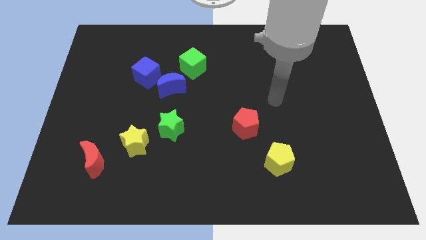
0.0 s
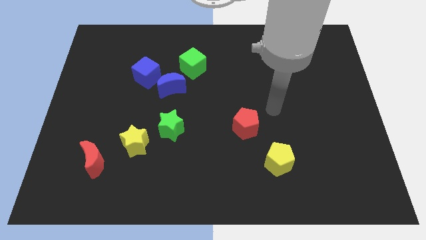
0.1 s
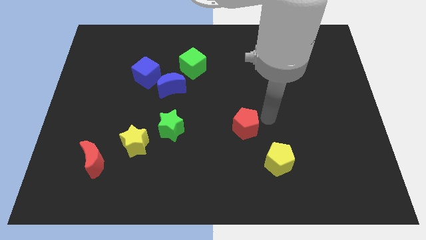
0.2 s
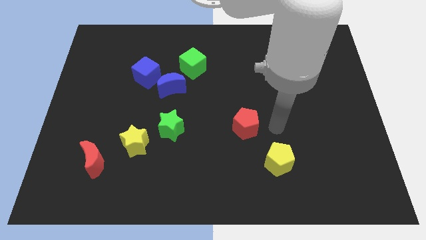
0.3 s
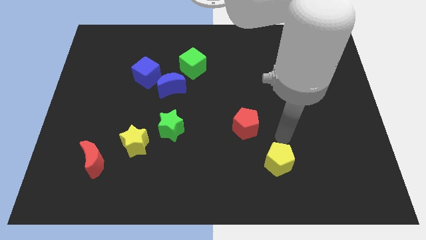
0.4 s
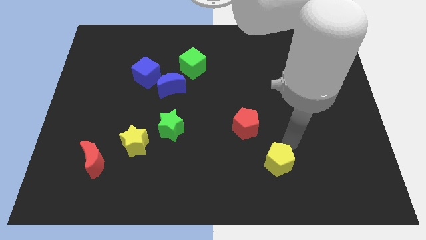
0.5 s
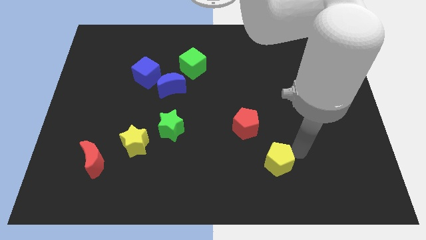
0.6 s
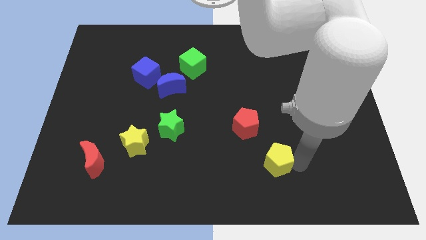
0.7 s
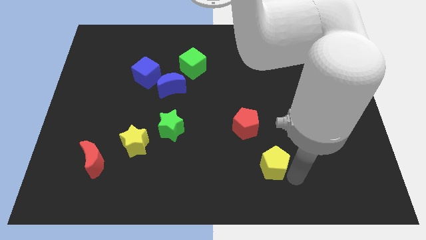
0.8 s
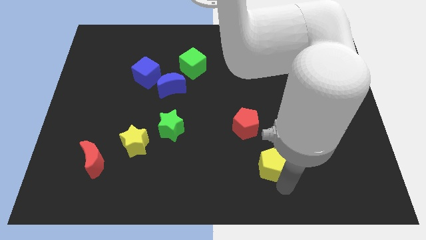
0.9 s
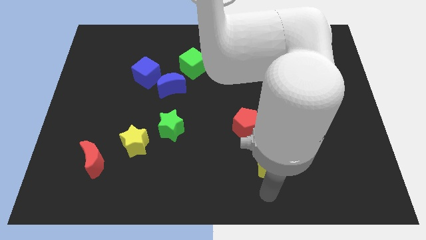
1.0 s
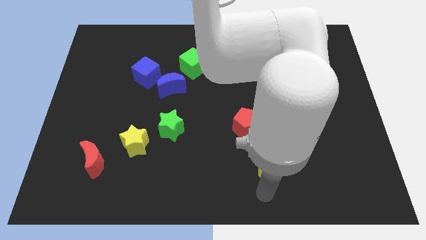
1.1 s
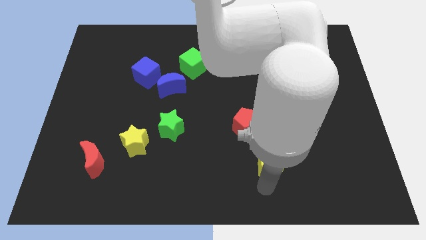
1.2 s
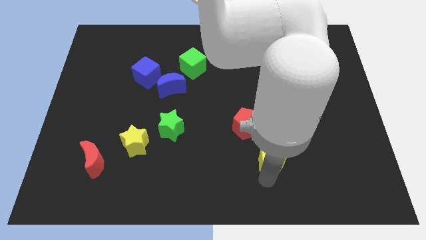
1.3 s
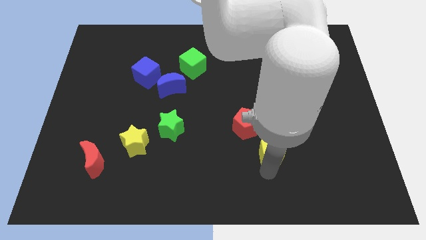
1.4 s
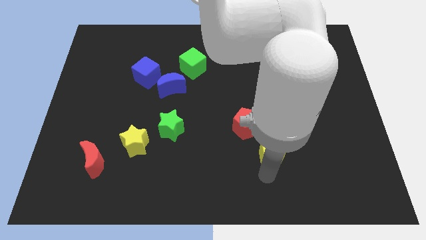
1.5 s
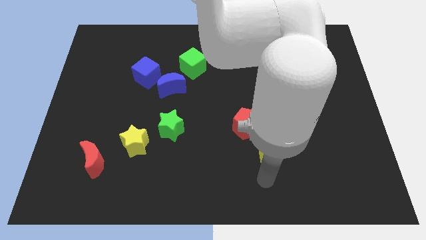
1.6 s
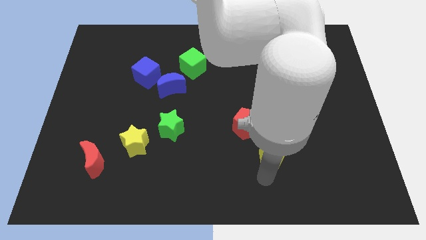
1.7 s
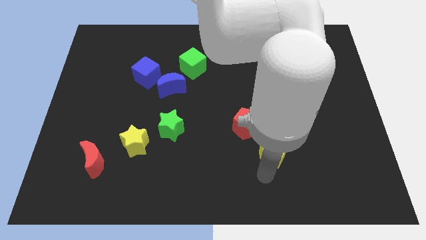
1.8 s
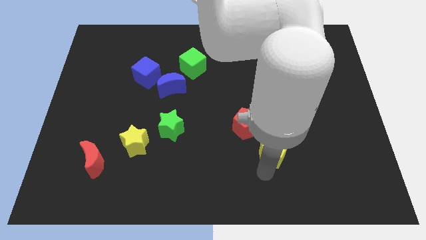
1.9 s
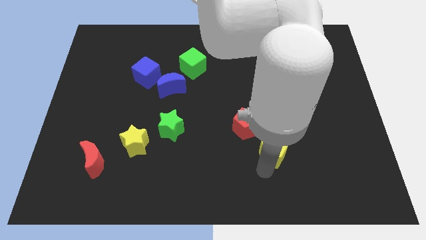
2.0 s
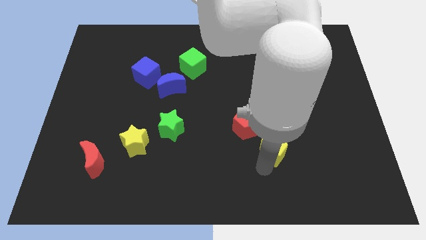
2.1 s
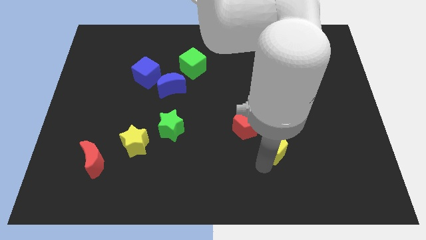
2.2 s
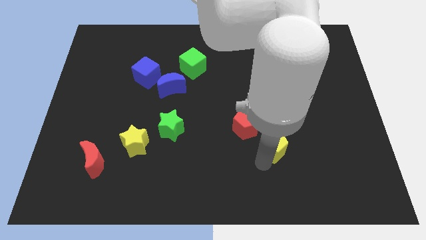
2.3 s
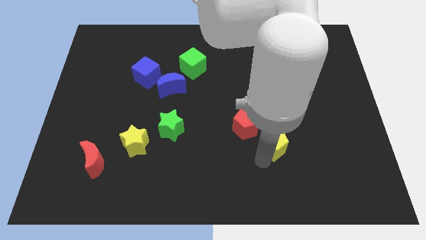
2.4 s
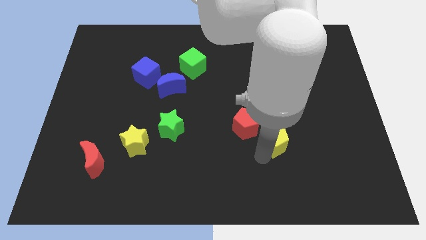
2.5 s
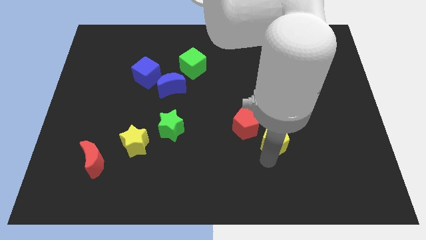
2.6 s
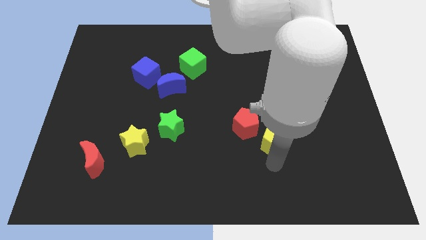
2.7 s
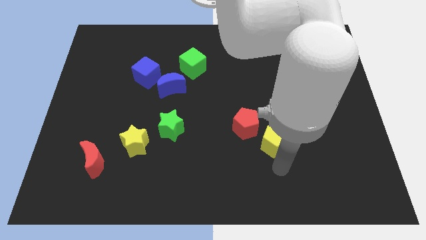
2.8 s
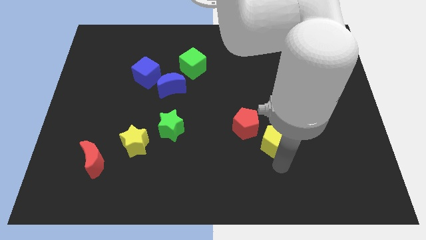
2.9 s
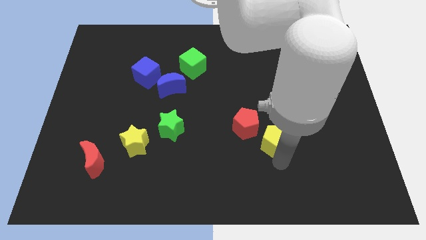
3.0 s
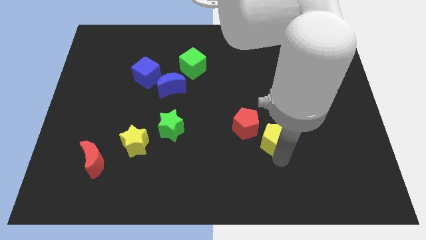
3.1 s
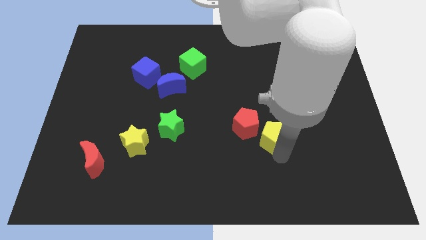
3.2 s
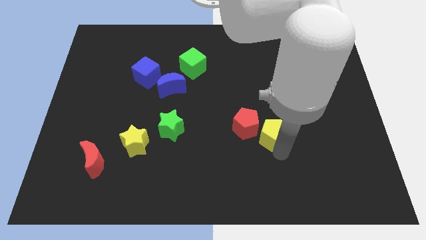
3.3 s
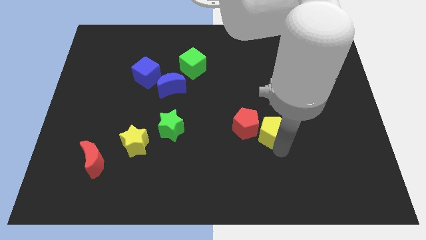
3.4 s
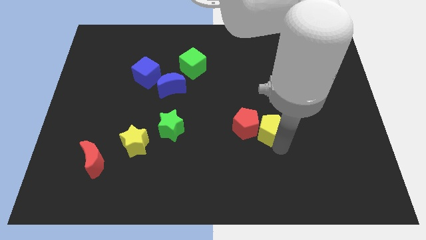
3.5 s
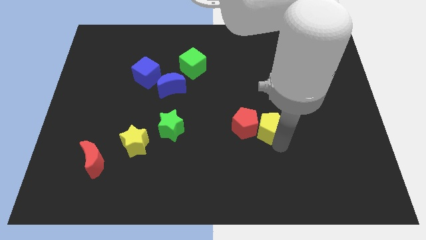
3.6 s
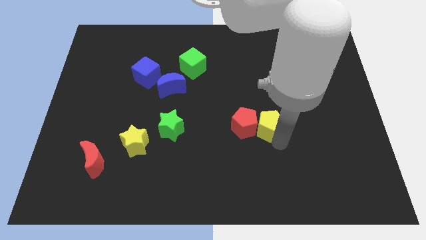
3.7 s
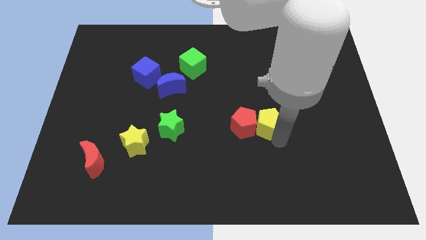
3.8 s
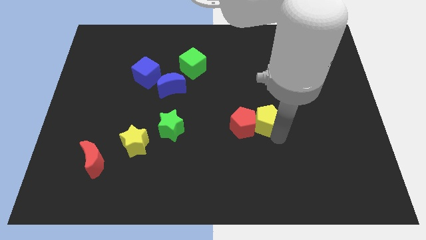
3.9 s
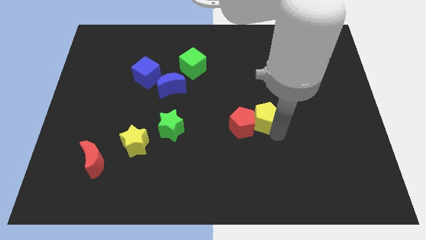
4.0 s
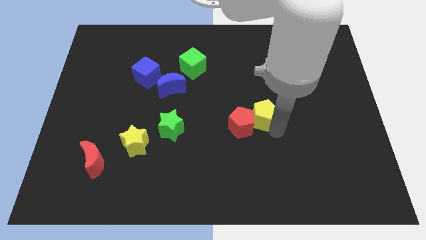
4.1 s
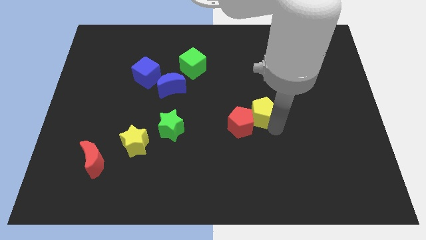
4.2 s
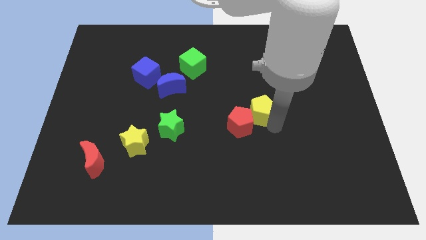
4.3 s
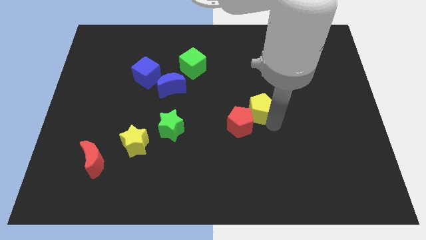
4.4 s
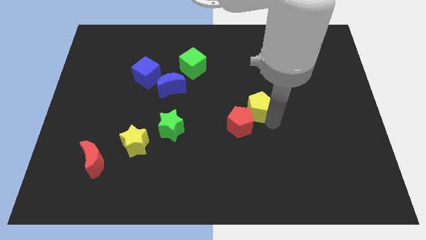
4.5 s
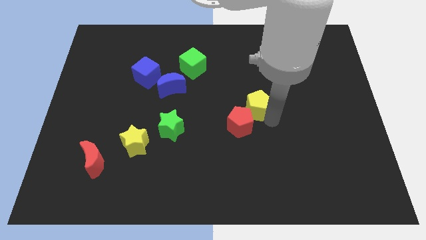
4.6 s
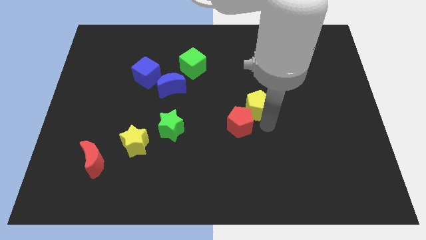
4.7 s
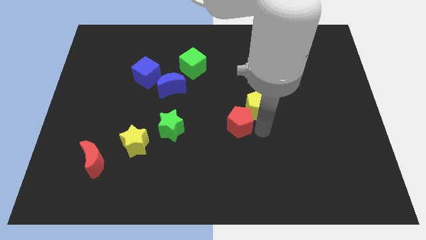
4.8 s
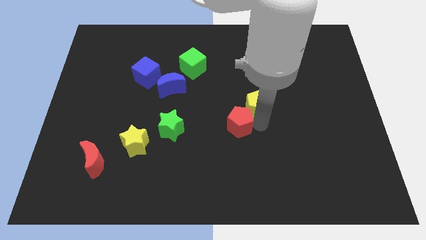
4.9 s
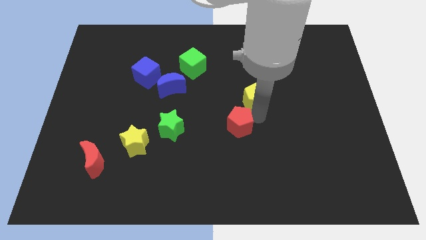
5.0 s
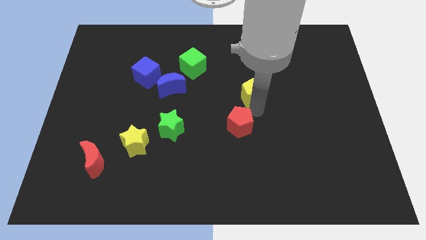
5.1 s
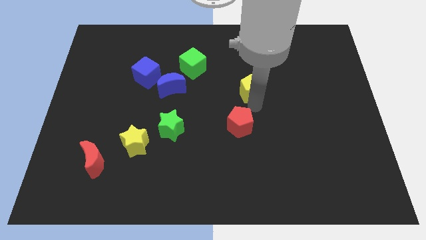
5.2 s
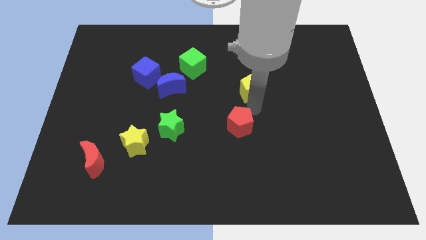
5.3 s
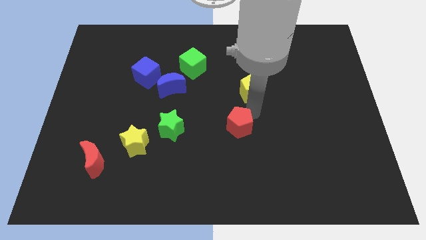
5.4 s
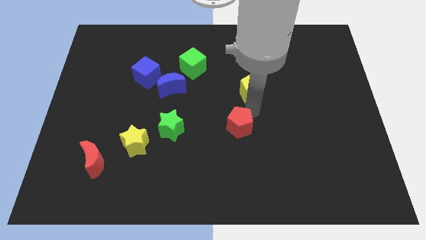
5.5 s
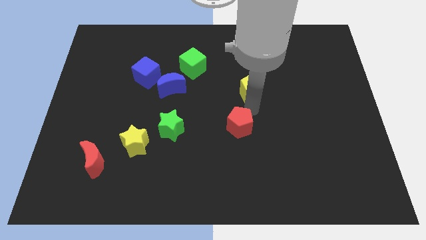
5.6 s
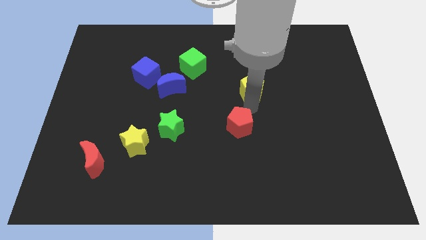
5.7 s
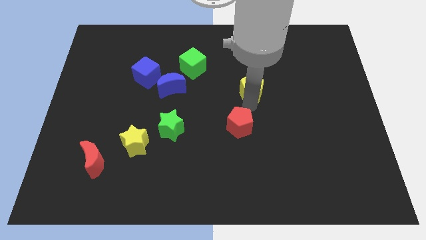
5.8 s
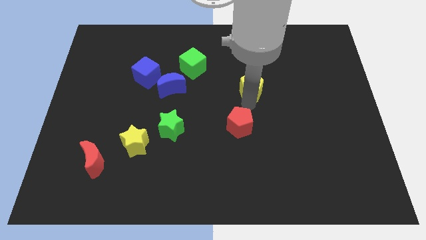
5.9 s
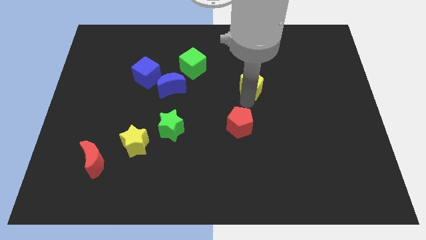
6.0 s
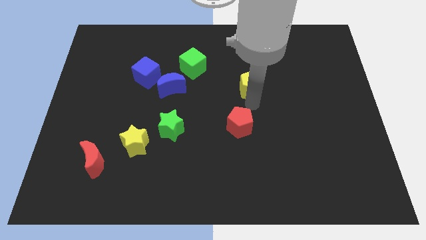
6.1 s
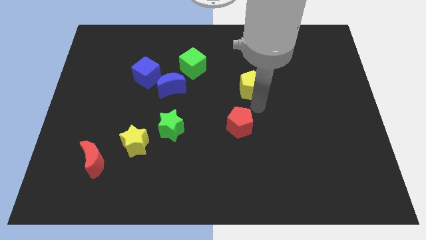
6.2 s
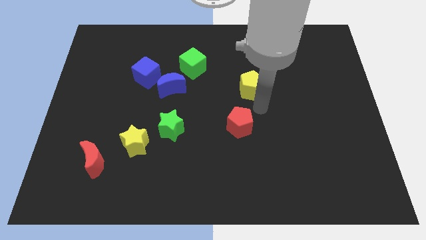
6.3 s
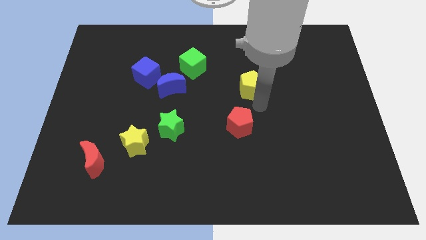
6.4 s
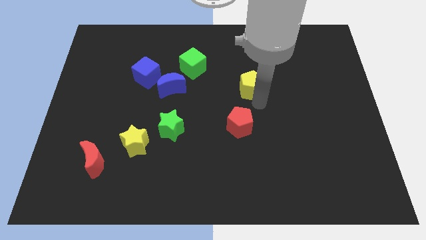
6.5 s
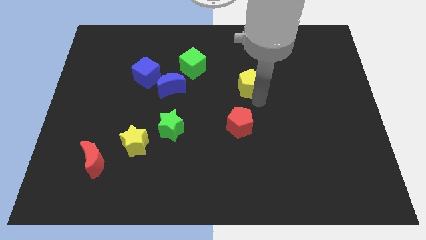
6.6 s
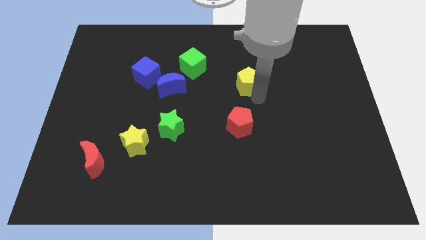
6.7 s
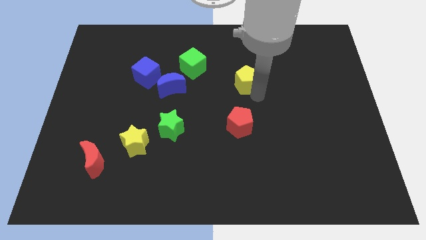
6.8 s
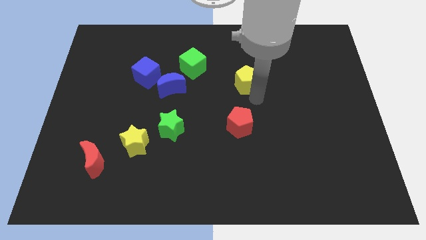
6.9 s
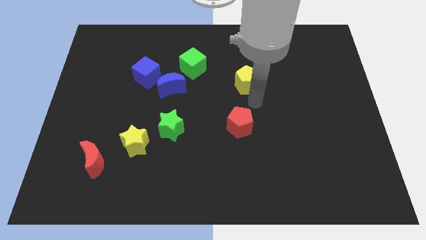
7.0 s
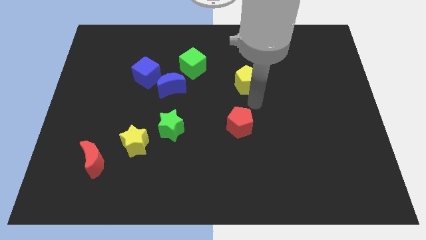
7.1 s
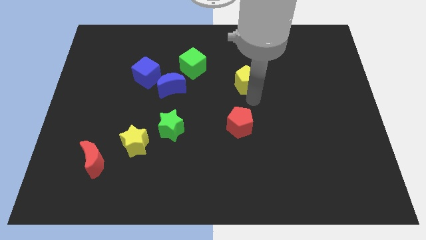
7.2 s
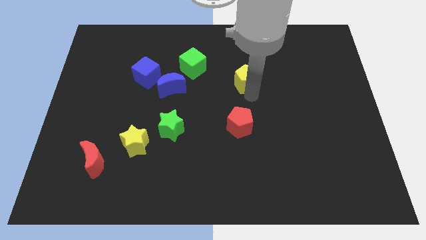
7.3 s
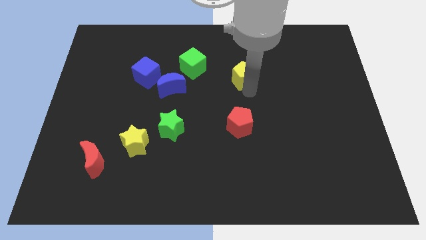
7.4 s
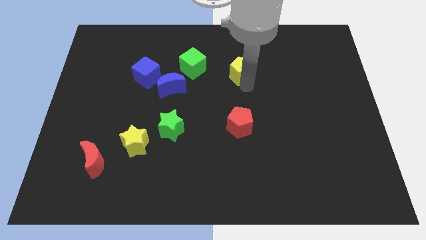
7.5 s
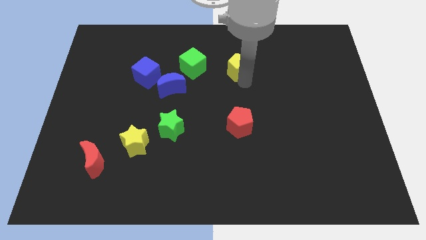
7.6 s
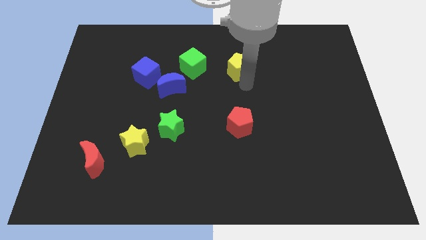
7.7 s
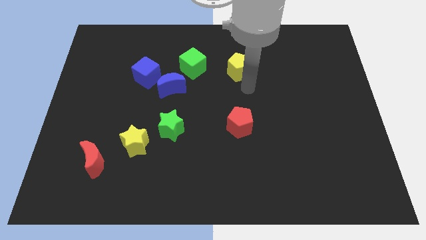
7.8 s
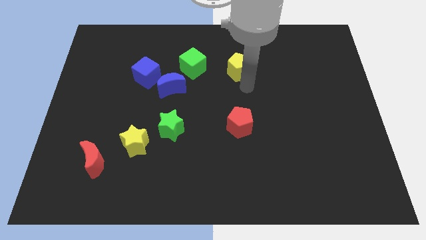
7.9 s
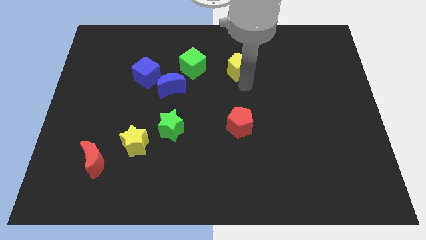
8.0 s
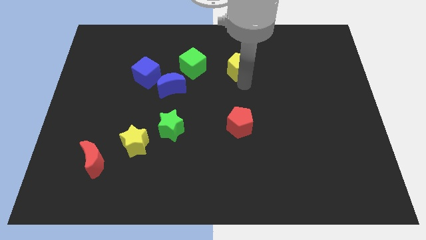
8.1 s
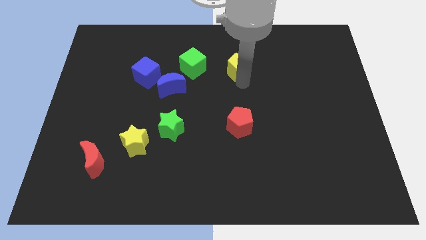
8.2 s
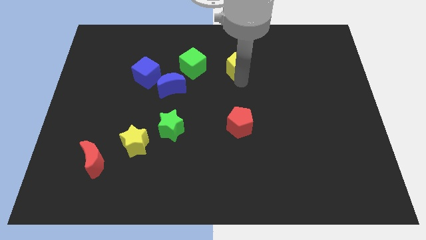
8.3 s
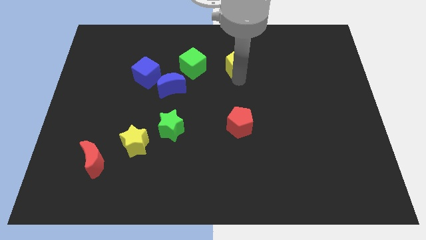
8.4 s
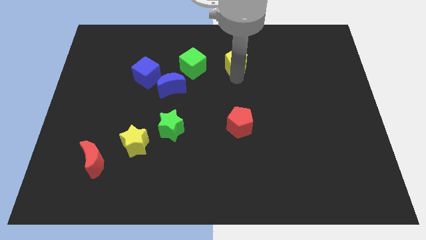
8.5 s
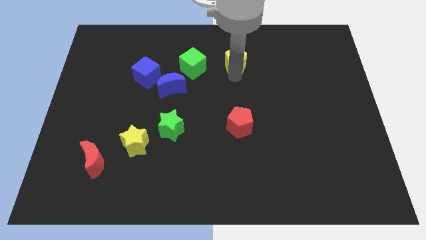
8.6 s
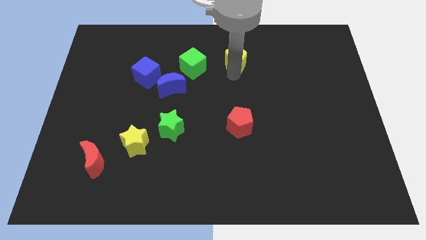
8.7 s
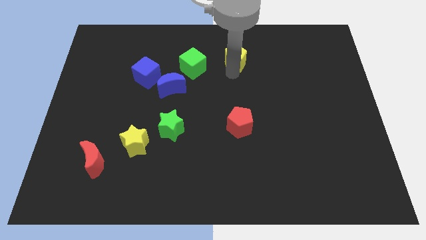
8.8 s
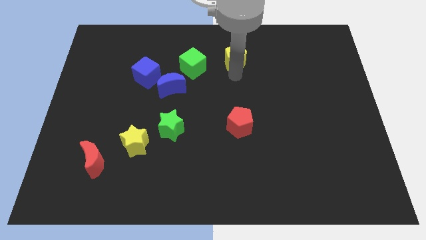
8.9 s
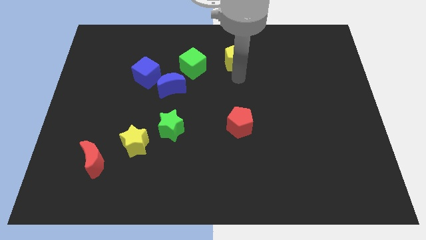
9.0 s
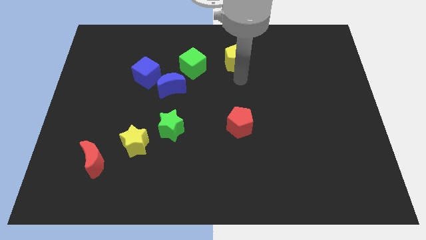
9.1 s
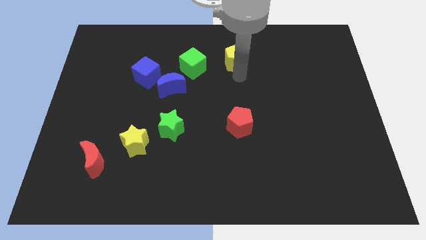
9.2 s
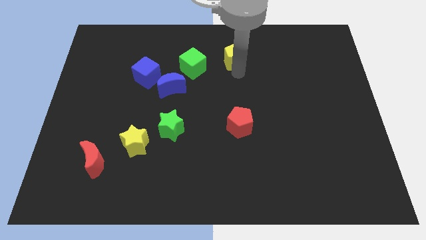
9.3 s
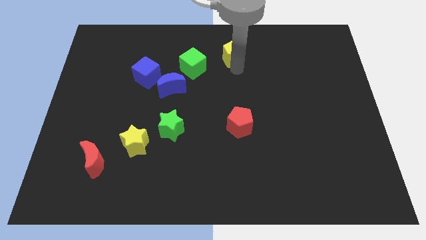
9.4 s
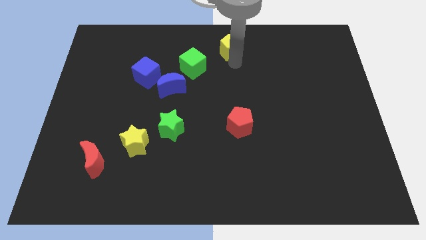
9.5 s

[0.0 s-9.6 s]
put the yellow pentagon to the towards your base
